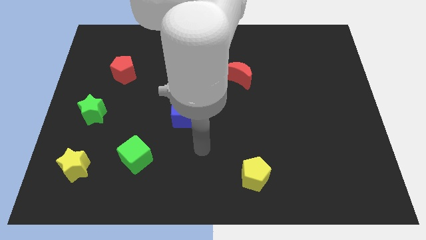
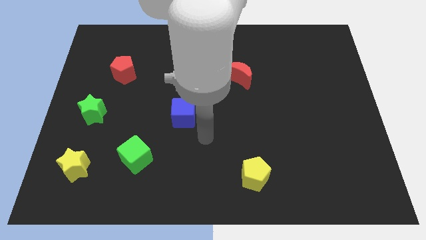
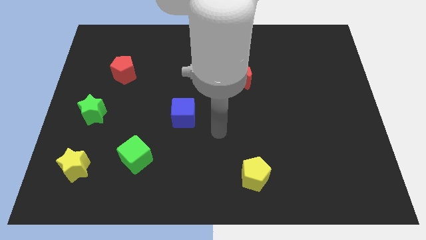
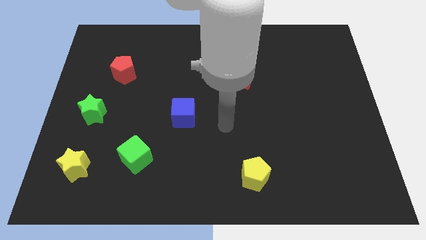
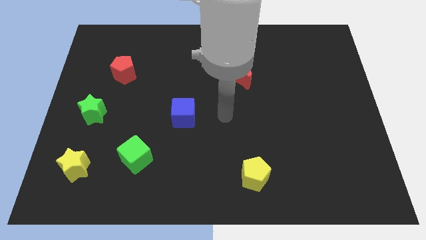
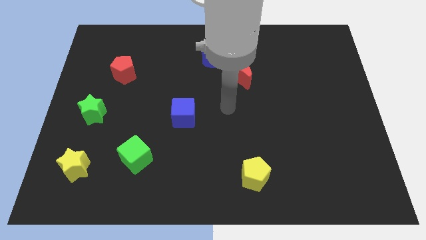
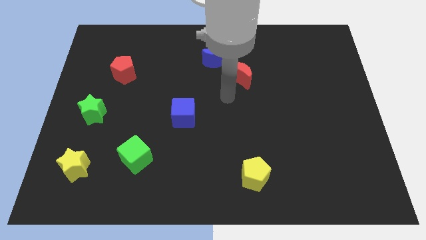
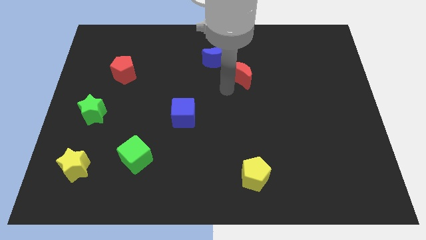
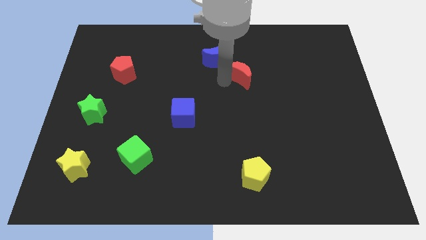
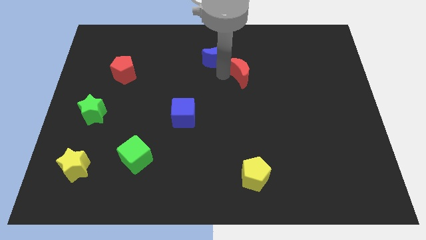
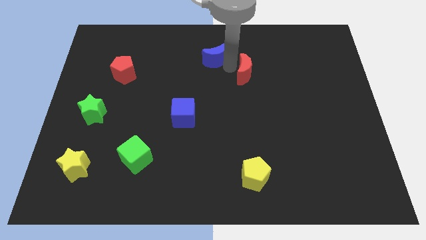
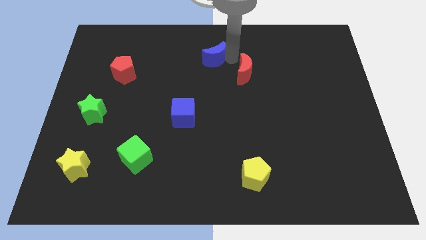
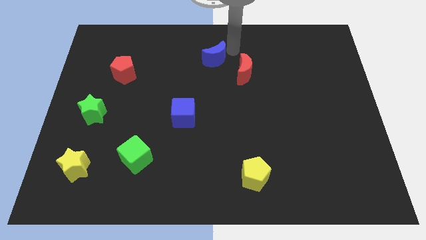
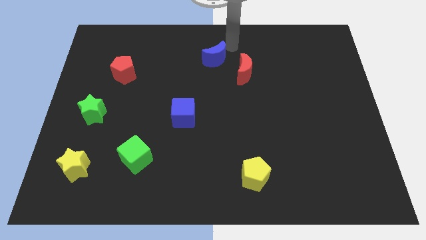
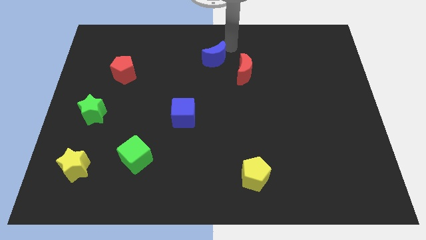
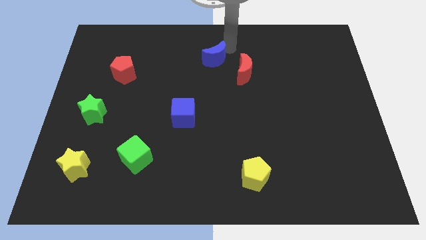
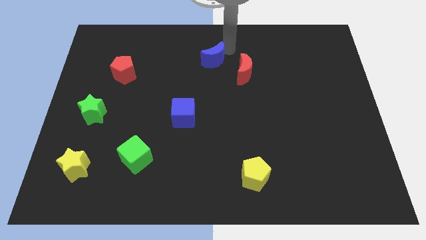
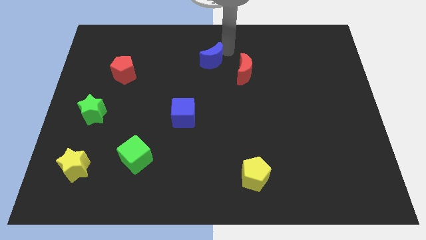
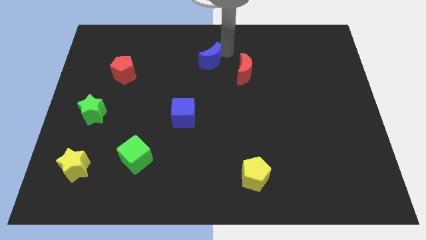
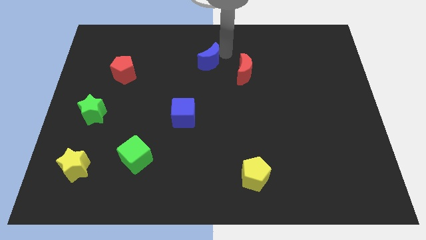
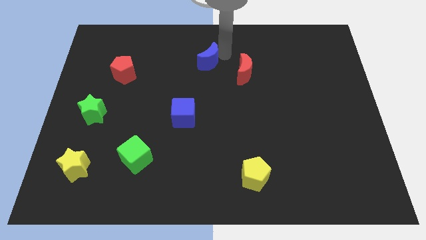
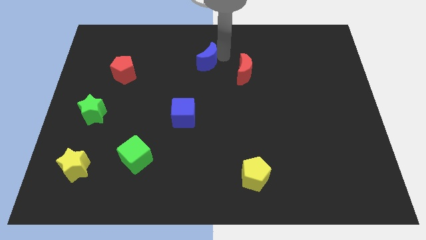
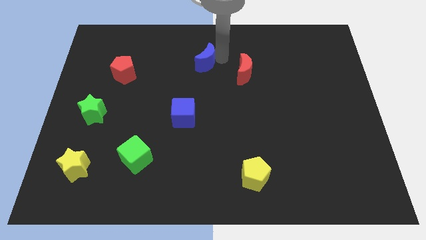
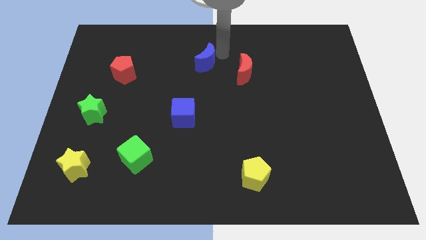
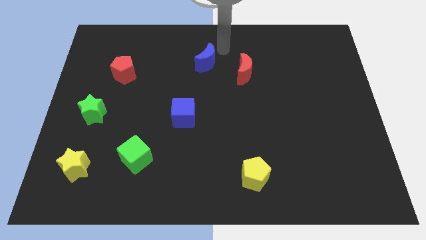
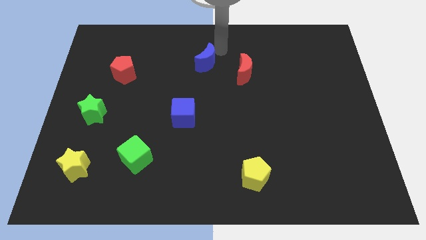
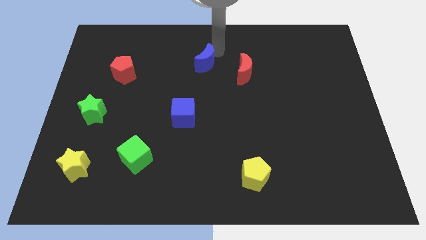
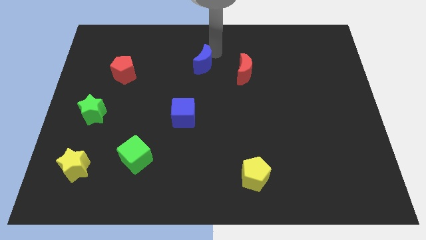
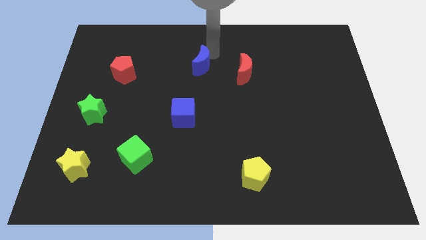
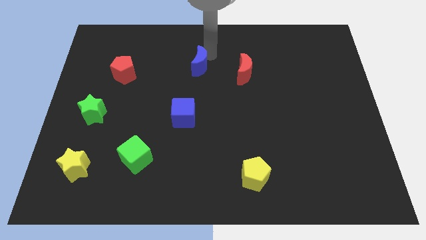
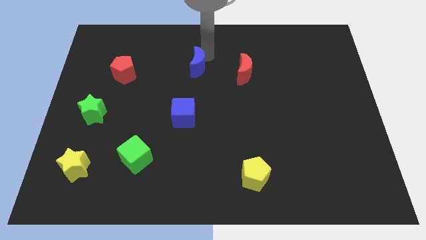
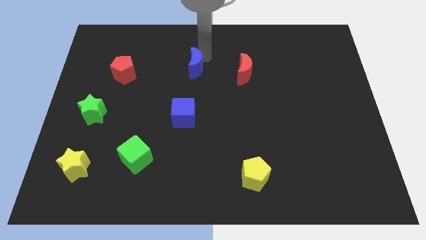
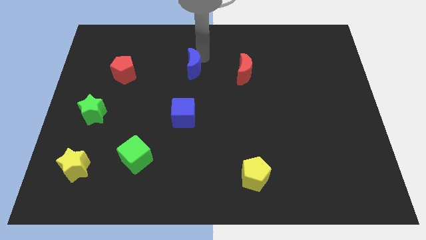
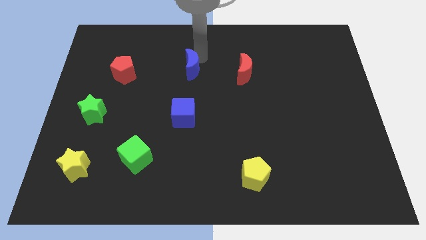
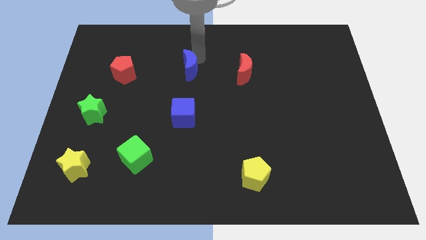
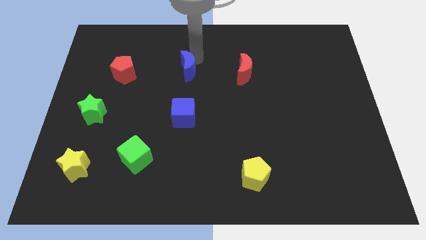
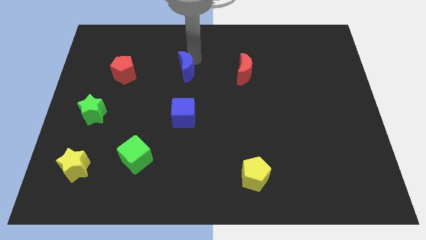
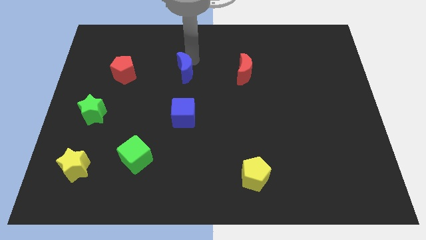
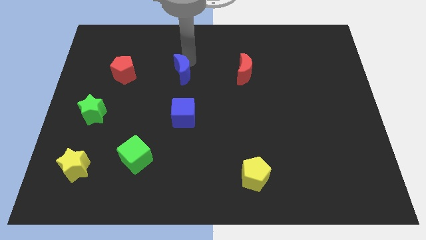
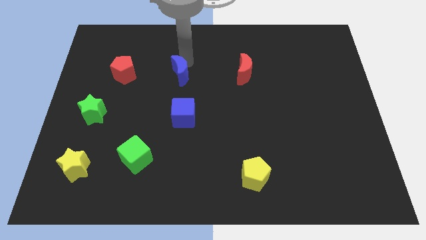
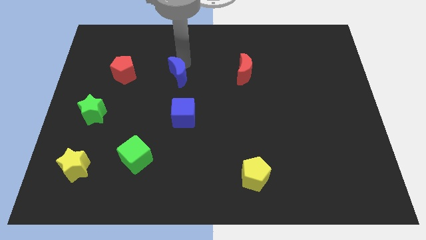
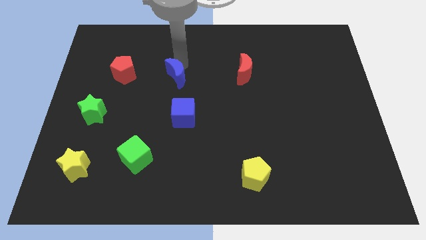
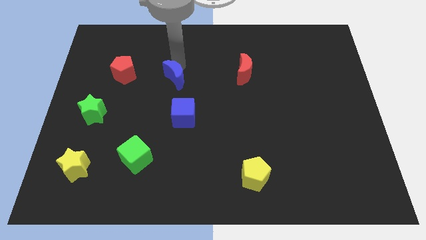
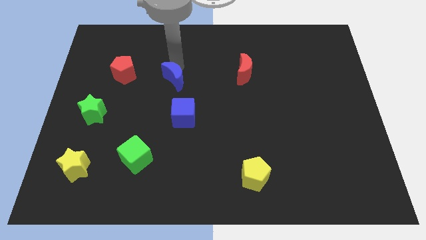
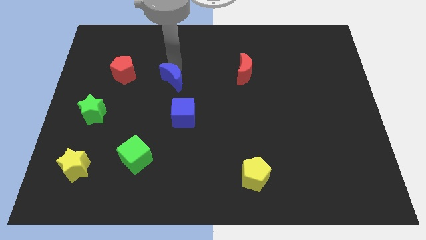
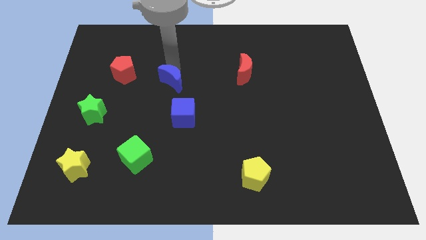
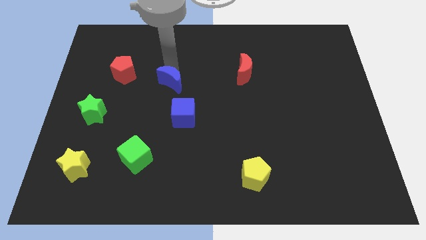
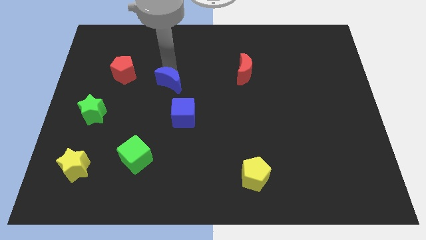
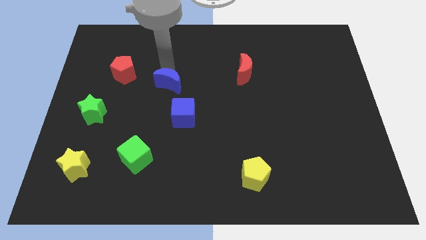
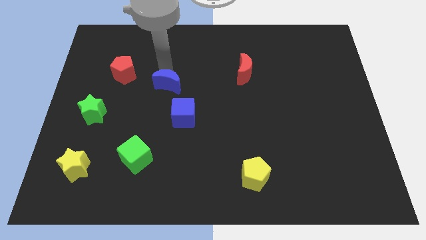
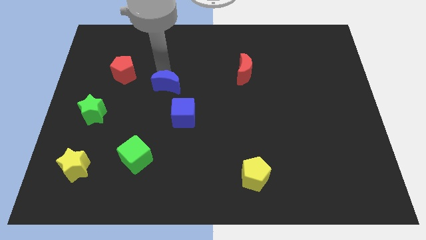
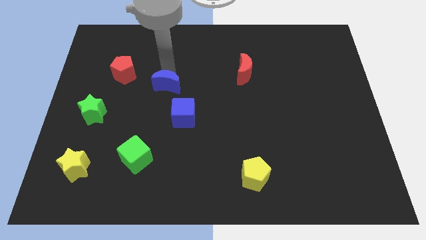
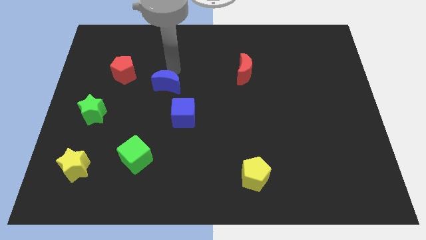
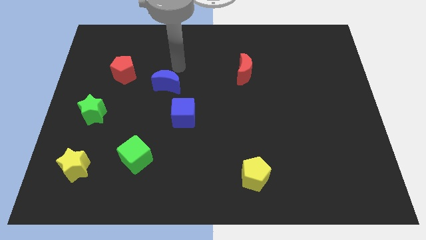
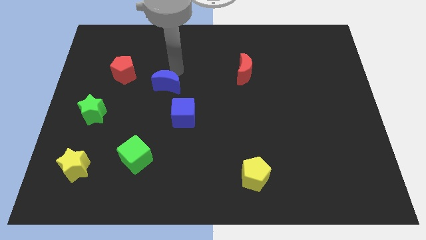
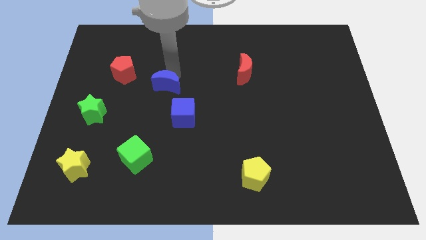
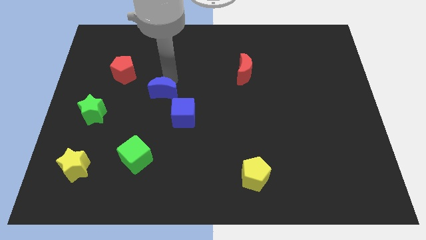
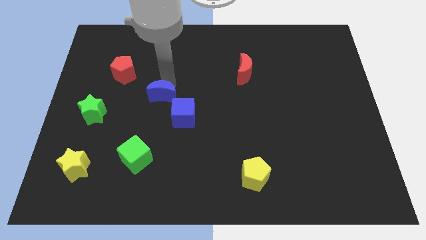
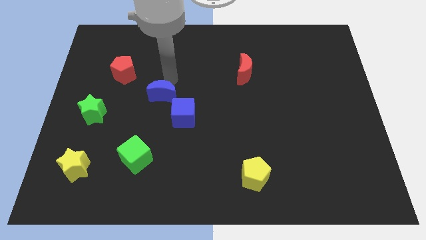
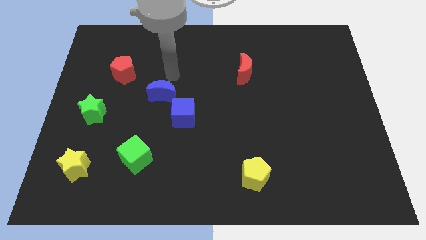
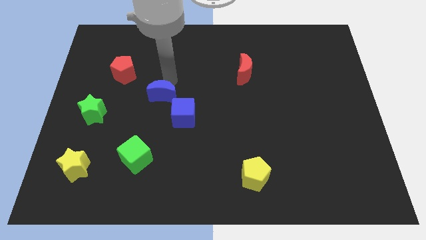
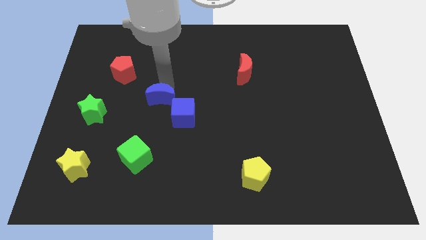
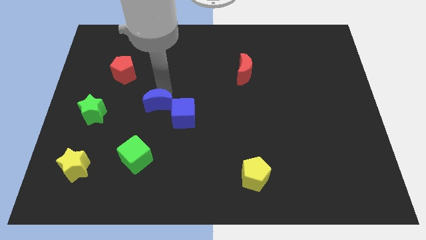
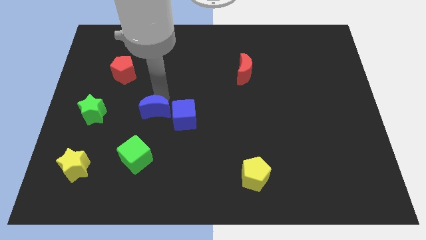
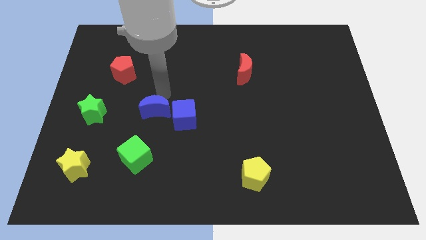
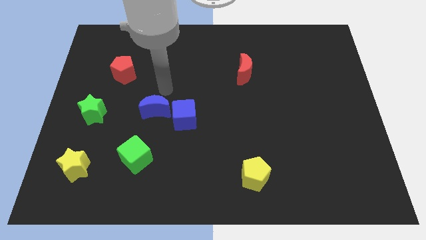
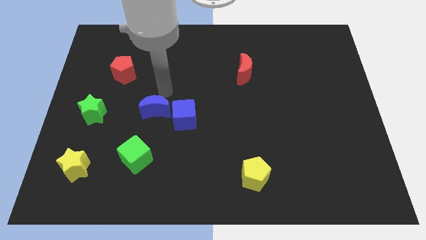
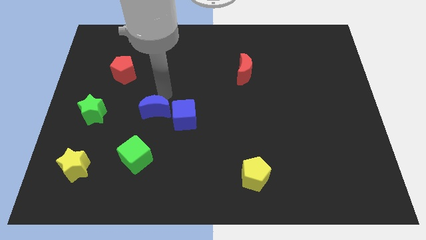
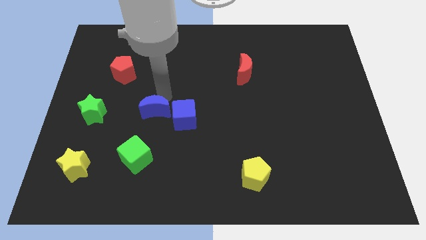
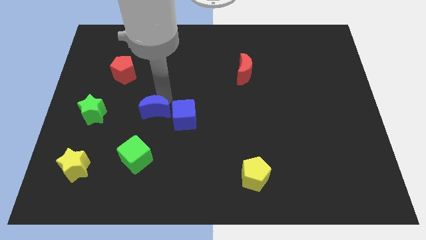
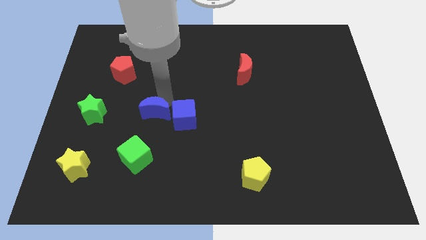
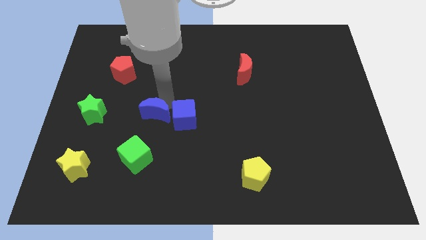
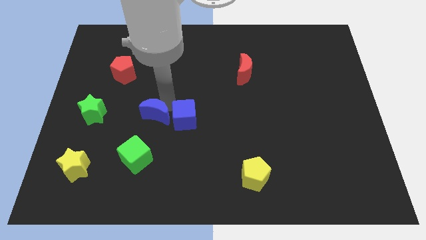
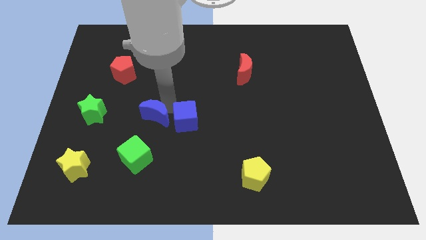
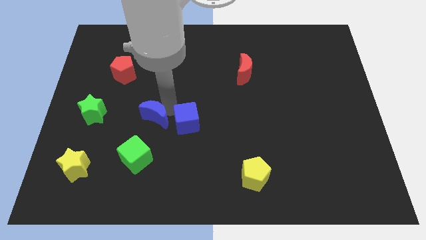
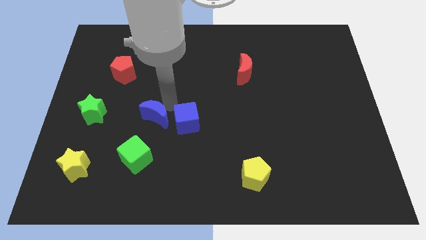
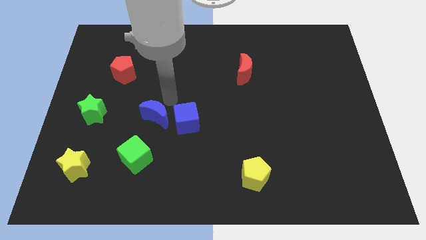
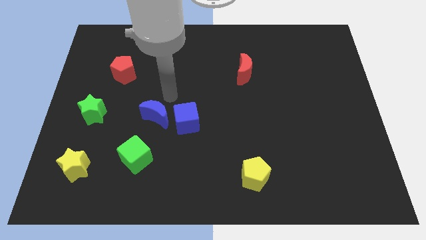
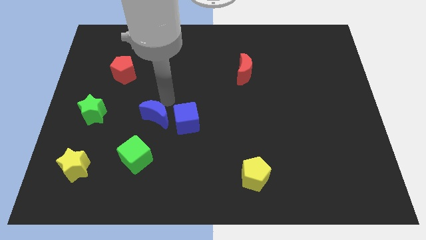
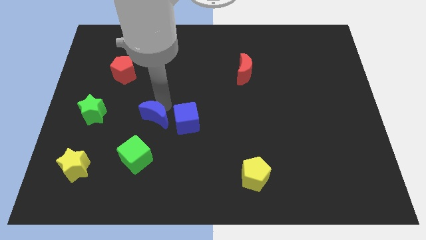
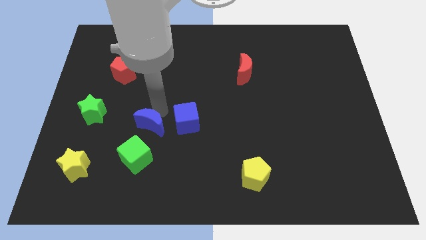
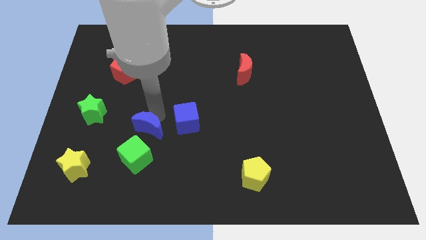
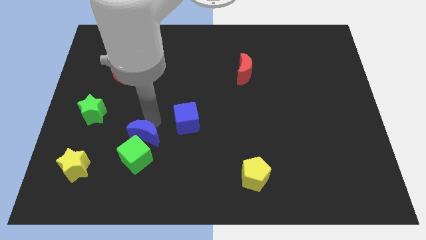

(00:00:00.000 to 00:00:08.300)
slide the blue moon to the green cube
